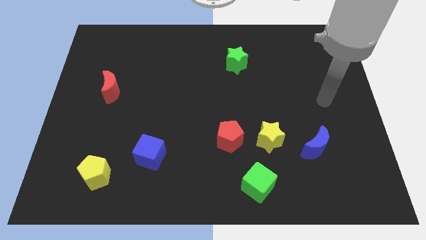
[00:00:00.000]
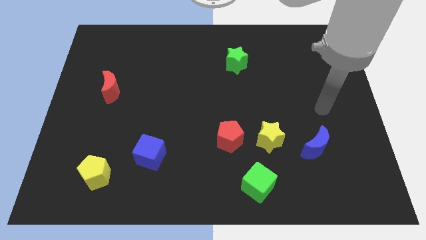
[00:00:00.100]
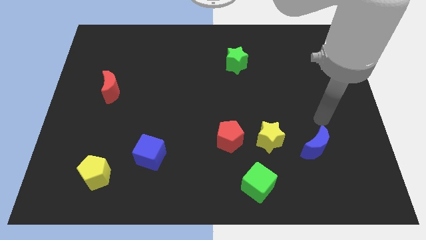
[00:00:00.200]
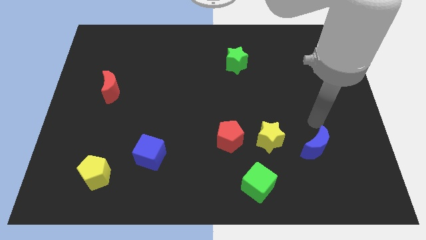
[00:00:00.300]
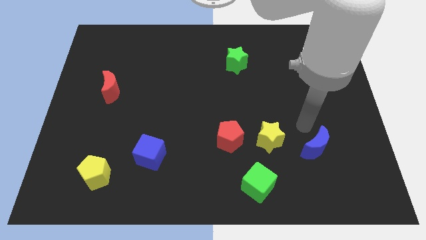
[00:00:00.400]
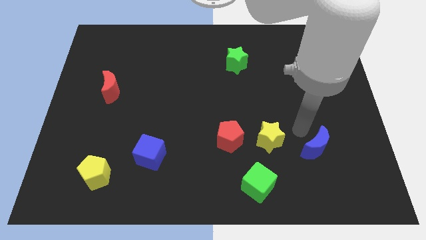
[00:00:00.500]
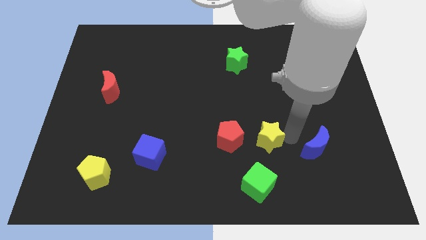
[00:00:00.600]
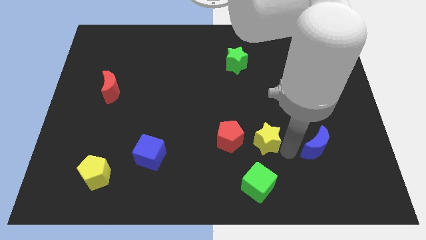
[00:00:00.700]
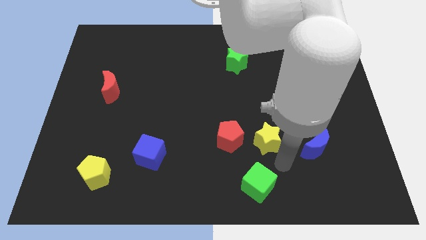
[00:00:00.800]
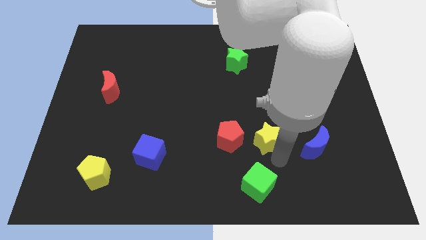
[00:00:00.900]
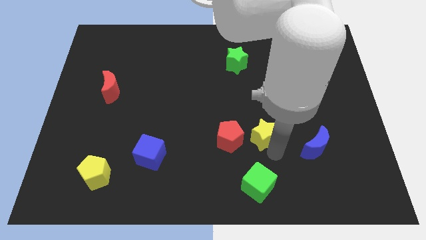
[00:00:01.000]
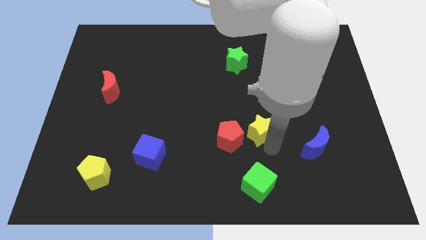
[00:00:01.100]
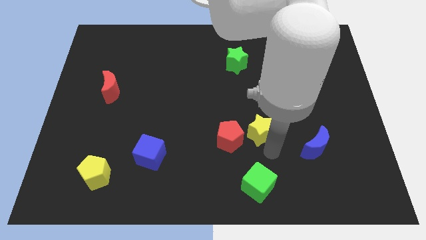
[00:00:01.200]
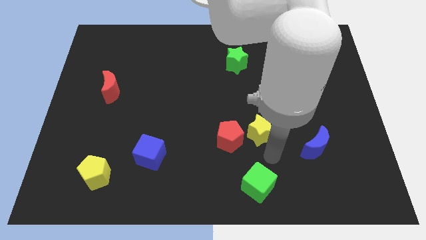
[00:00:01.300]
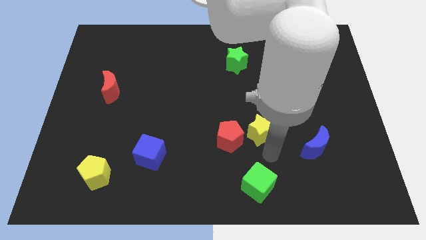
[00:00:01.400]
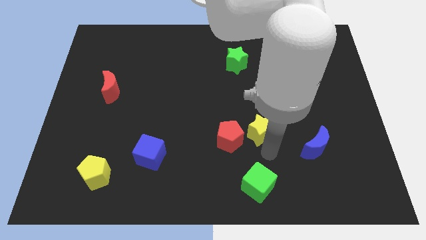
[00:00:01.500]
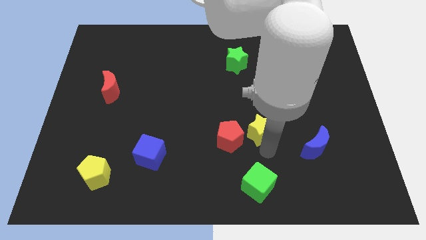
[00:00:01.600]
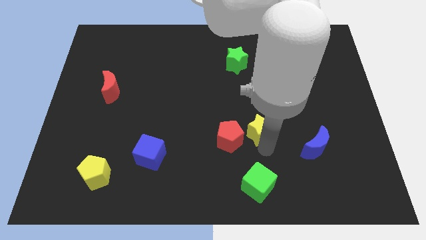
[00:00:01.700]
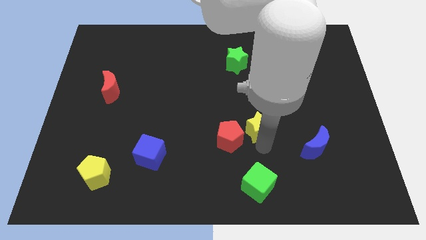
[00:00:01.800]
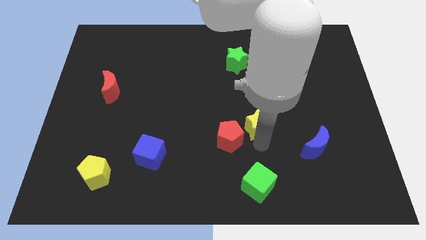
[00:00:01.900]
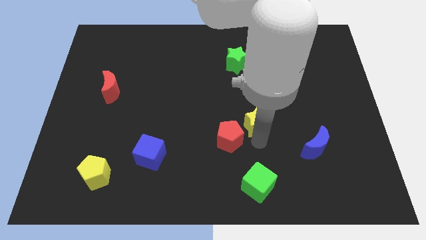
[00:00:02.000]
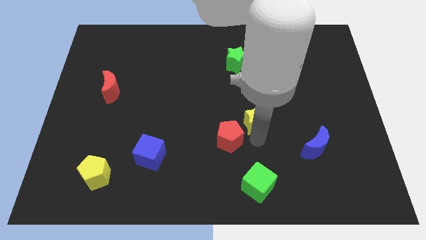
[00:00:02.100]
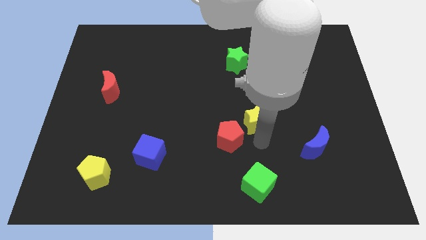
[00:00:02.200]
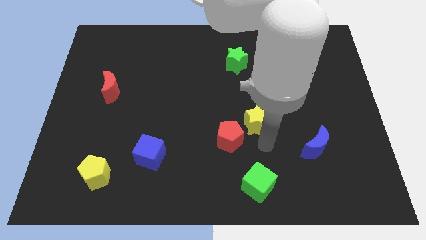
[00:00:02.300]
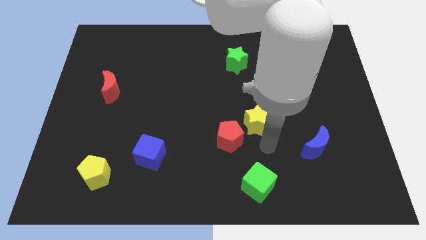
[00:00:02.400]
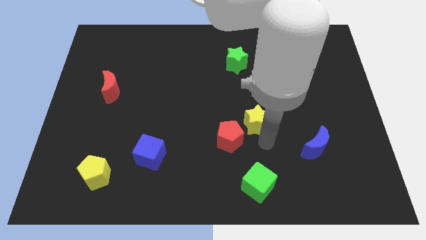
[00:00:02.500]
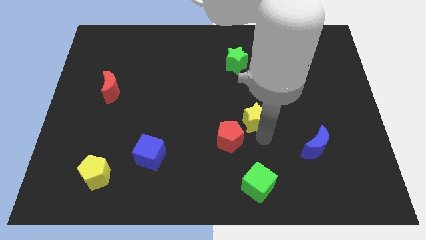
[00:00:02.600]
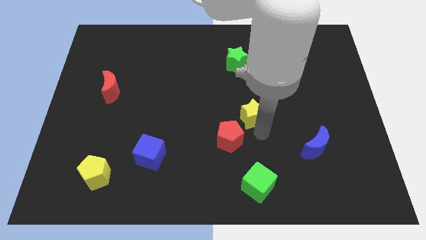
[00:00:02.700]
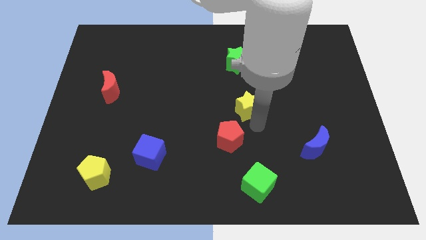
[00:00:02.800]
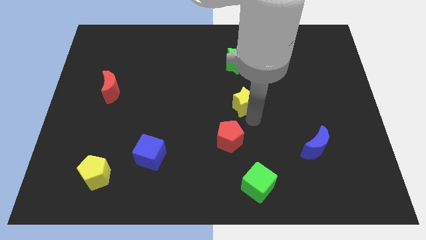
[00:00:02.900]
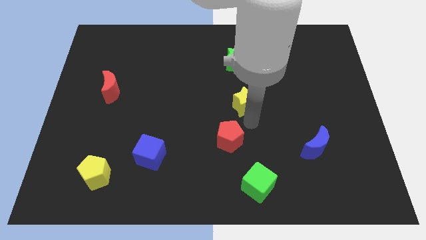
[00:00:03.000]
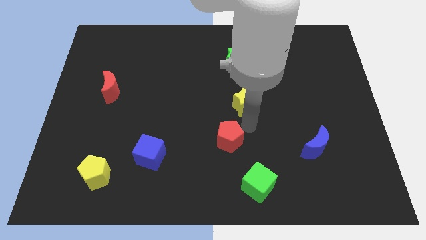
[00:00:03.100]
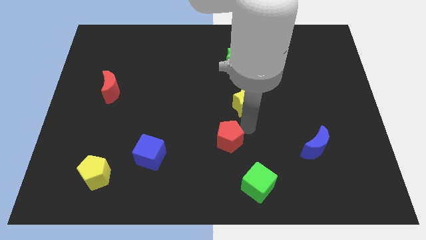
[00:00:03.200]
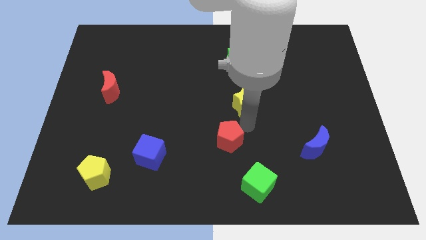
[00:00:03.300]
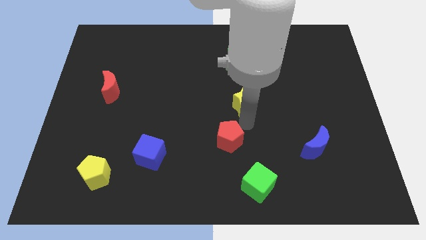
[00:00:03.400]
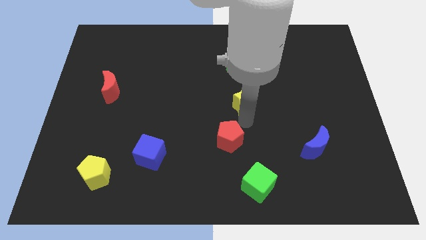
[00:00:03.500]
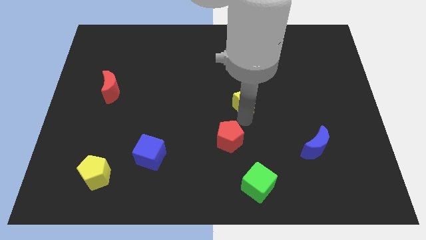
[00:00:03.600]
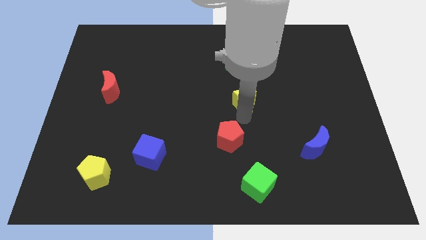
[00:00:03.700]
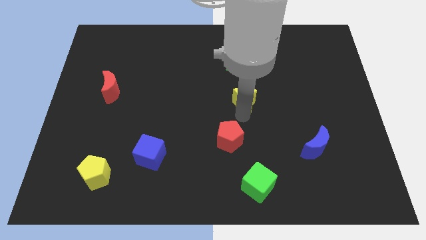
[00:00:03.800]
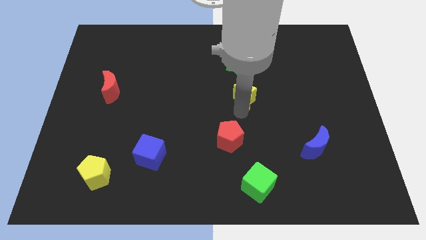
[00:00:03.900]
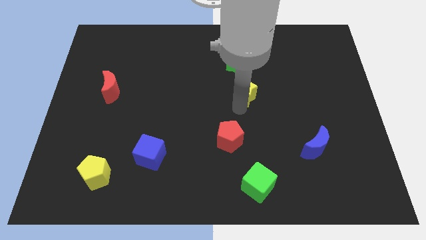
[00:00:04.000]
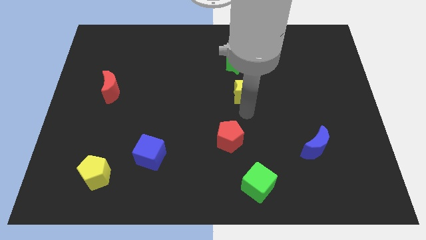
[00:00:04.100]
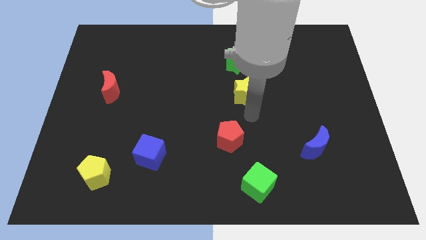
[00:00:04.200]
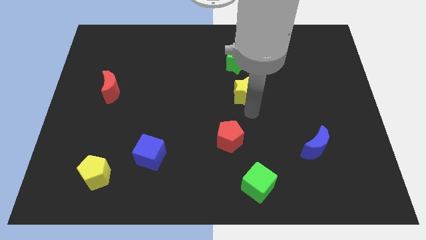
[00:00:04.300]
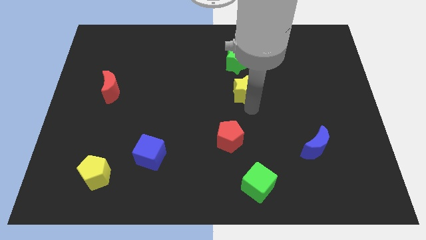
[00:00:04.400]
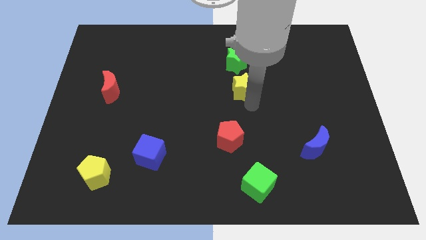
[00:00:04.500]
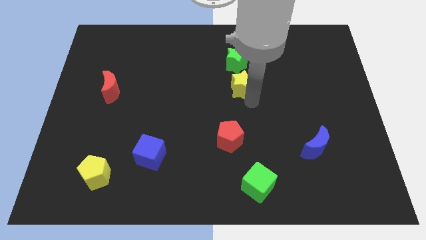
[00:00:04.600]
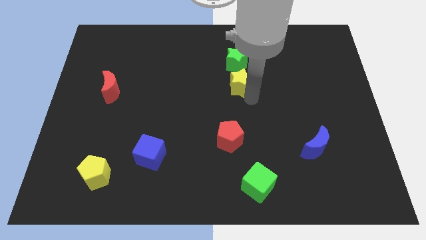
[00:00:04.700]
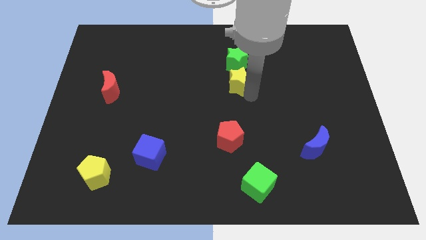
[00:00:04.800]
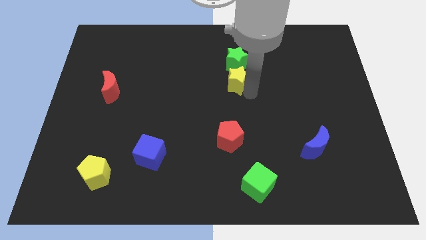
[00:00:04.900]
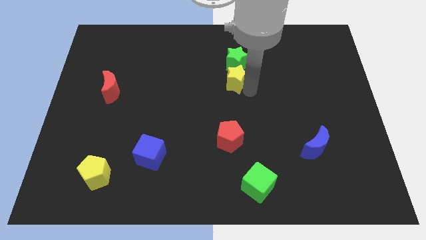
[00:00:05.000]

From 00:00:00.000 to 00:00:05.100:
put the yellow star to the green star

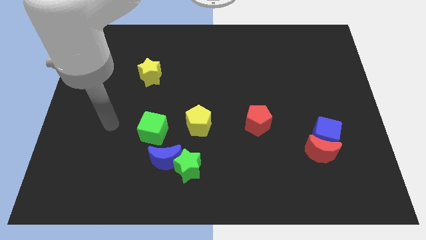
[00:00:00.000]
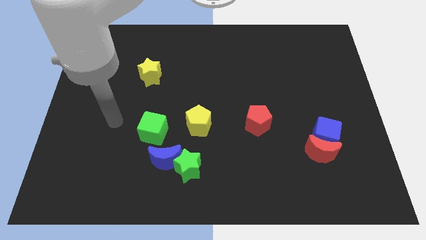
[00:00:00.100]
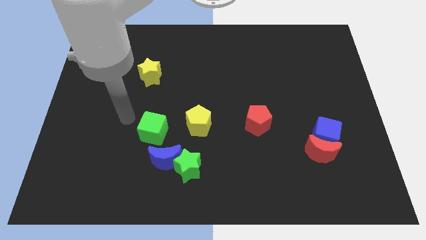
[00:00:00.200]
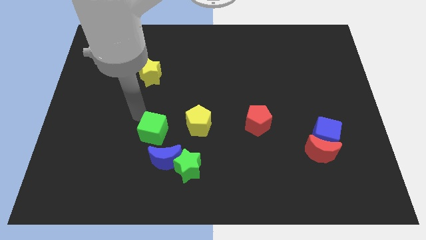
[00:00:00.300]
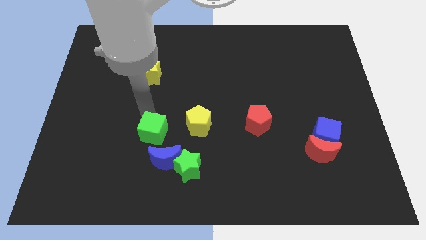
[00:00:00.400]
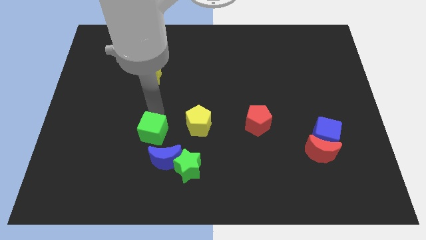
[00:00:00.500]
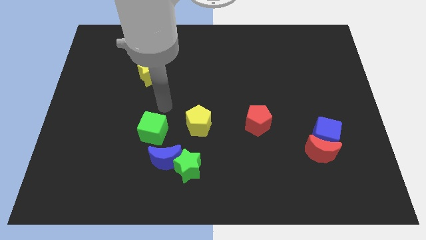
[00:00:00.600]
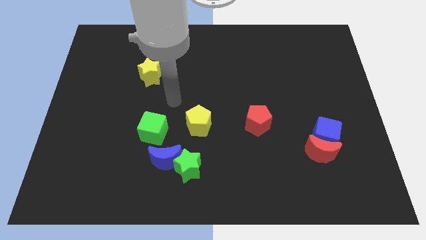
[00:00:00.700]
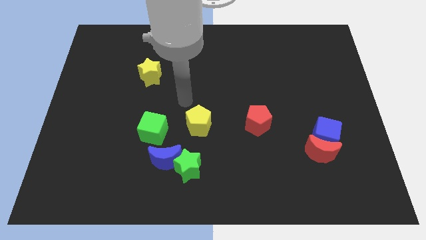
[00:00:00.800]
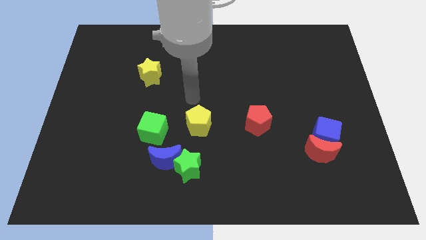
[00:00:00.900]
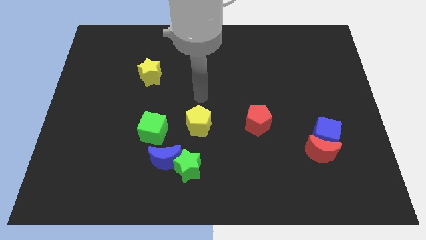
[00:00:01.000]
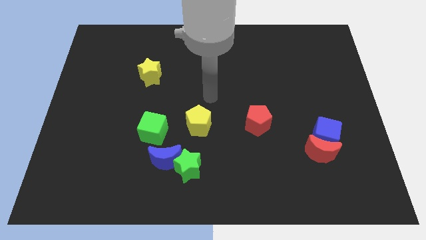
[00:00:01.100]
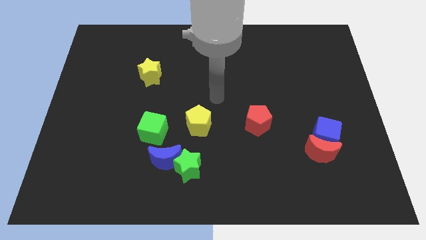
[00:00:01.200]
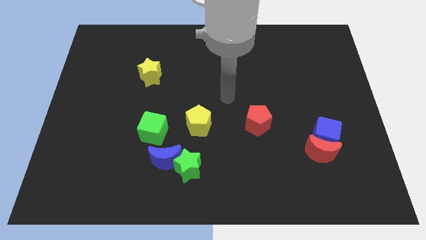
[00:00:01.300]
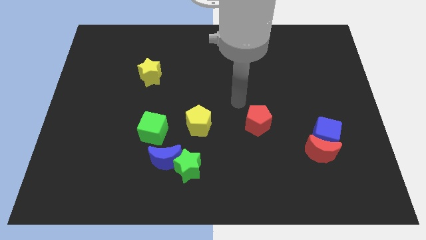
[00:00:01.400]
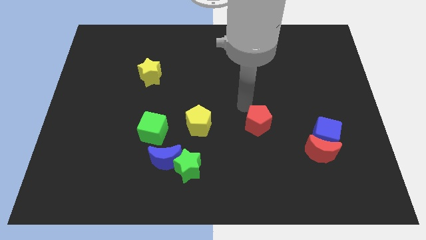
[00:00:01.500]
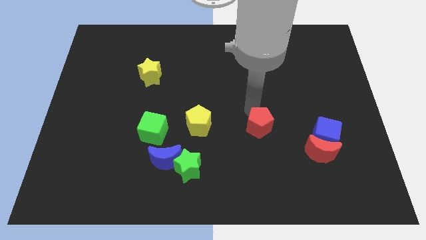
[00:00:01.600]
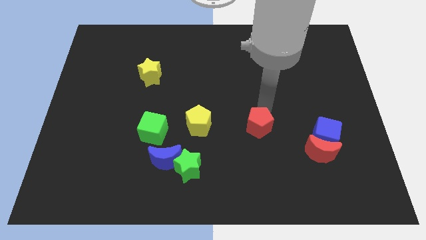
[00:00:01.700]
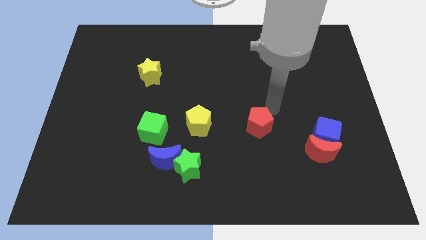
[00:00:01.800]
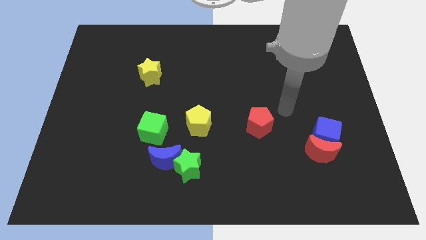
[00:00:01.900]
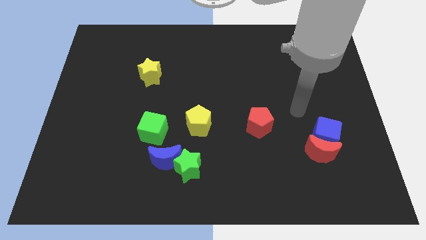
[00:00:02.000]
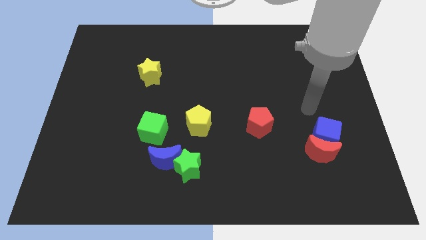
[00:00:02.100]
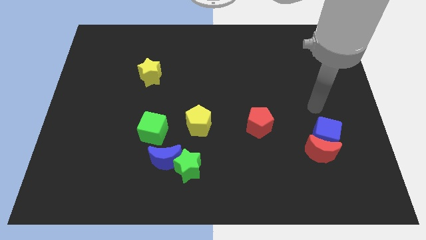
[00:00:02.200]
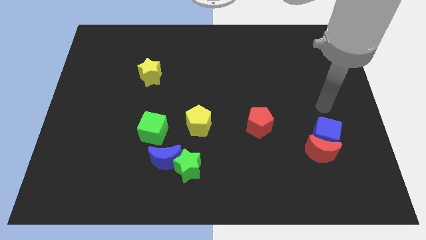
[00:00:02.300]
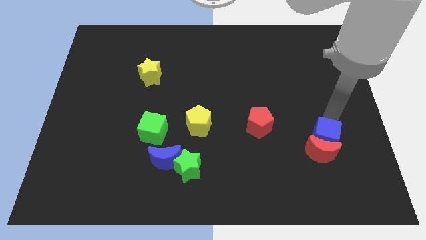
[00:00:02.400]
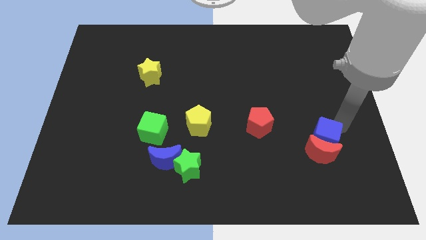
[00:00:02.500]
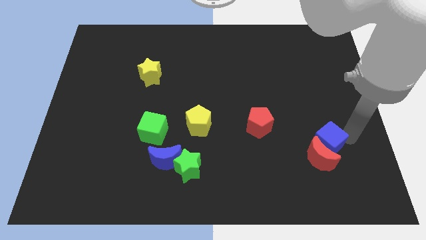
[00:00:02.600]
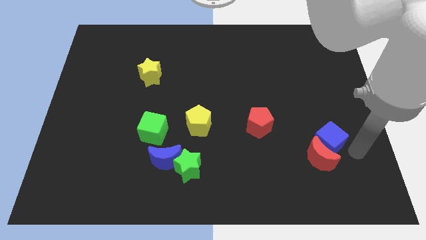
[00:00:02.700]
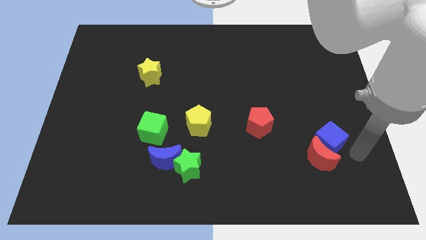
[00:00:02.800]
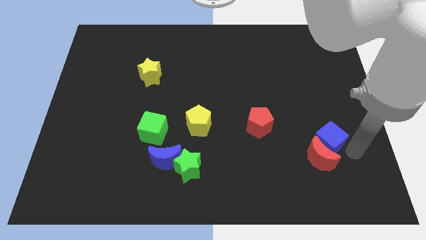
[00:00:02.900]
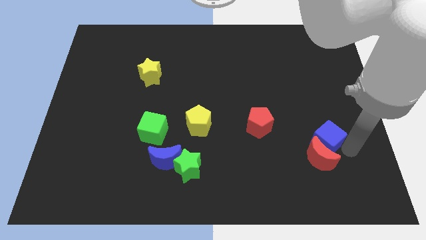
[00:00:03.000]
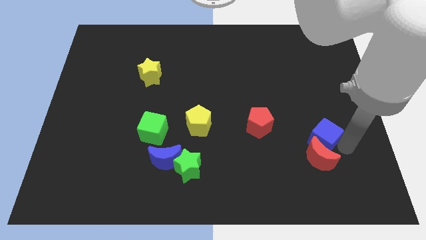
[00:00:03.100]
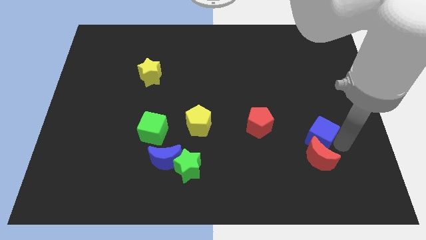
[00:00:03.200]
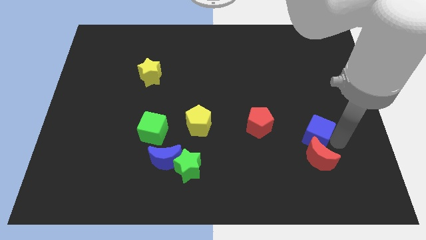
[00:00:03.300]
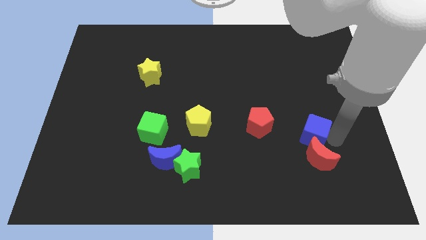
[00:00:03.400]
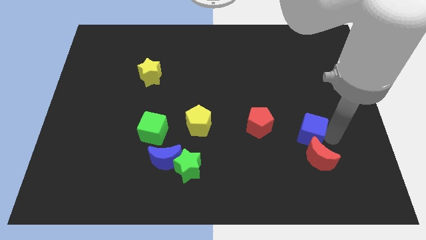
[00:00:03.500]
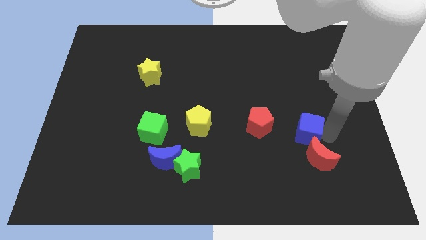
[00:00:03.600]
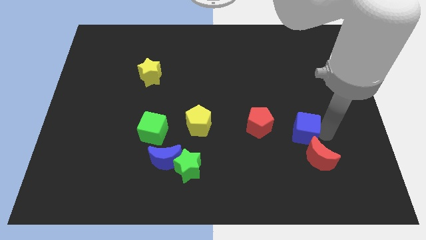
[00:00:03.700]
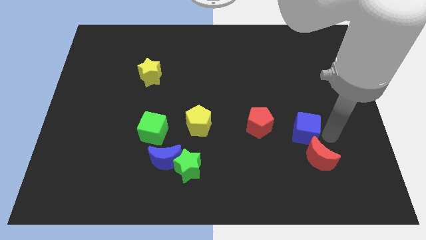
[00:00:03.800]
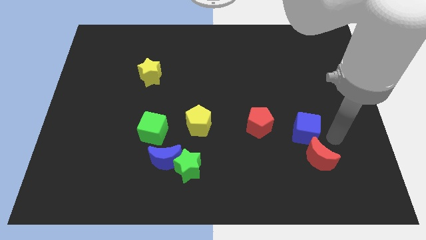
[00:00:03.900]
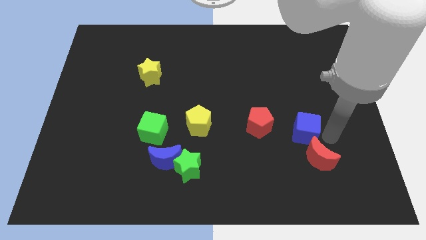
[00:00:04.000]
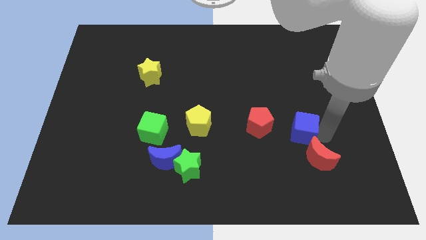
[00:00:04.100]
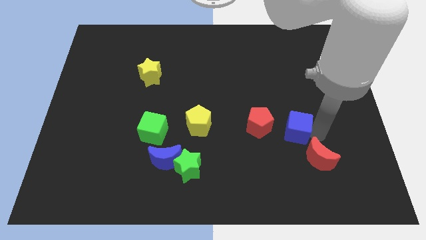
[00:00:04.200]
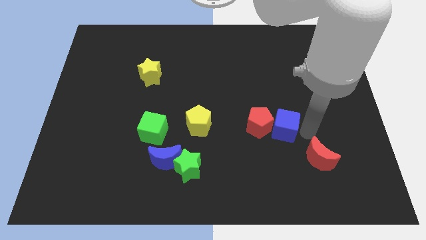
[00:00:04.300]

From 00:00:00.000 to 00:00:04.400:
push the blue cube to the red pentagon
